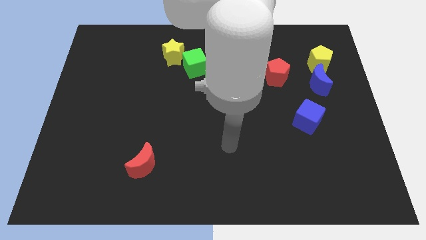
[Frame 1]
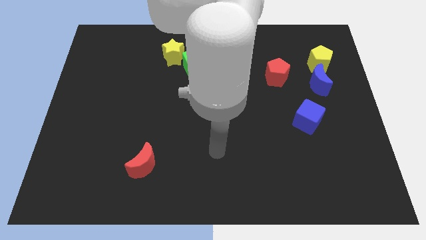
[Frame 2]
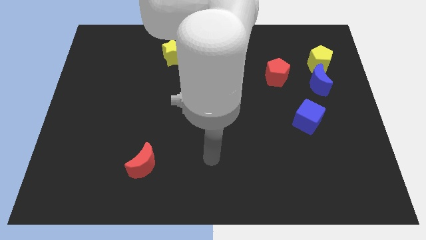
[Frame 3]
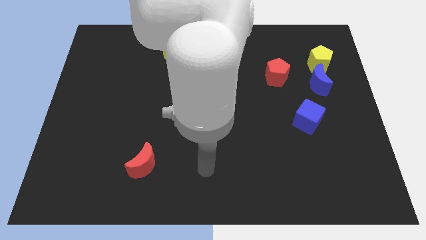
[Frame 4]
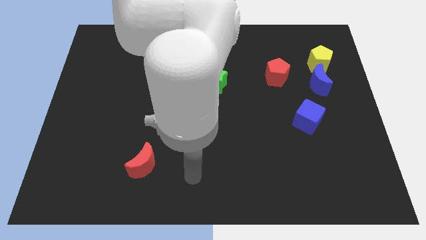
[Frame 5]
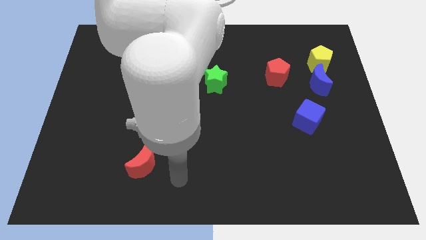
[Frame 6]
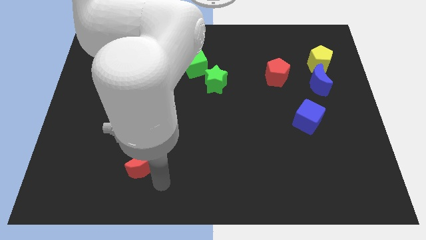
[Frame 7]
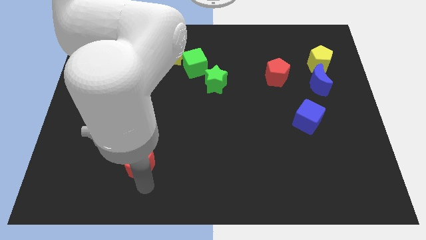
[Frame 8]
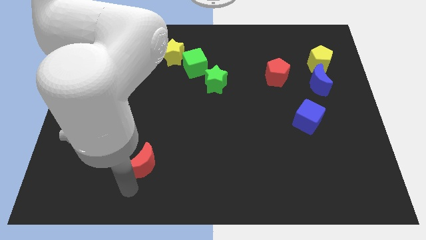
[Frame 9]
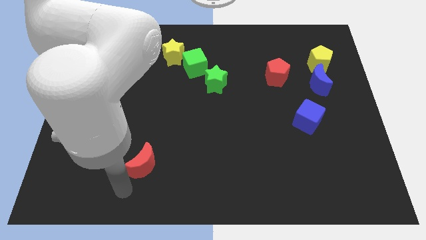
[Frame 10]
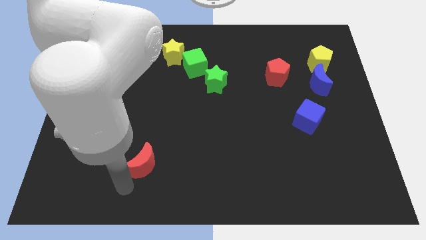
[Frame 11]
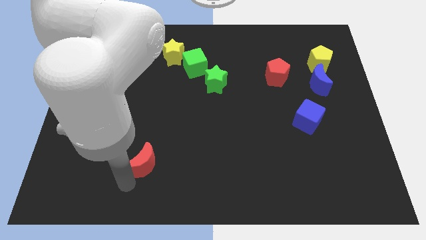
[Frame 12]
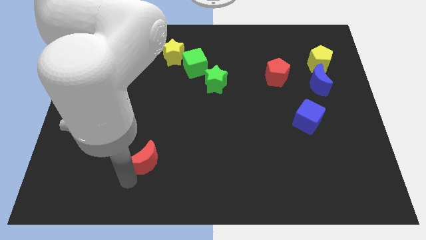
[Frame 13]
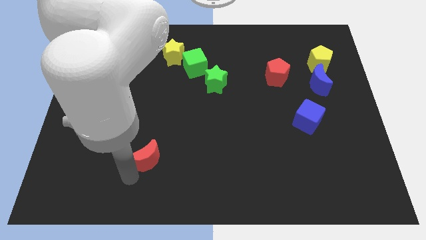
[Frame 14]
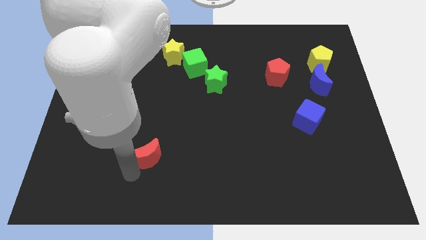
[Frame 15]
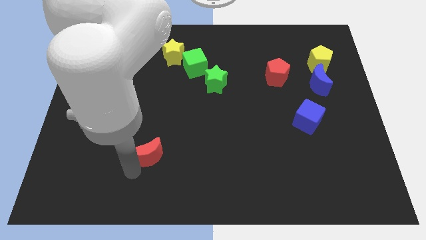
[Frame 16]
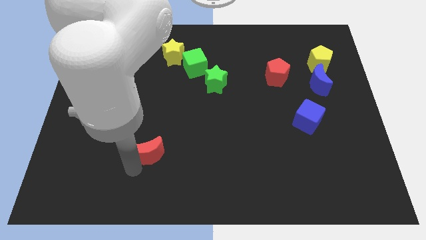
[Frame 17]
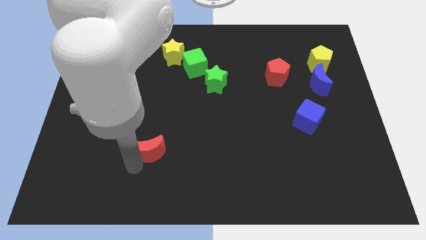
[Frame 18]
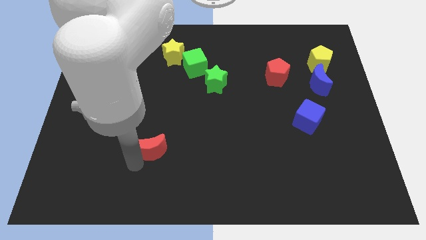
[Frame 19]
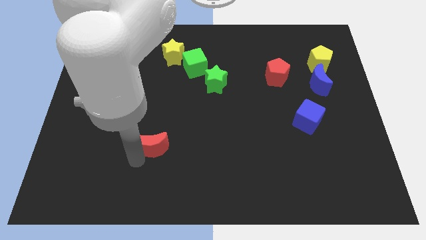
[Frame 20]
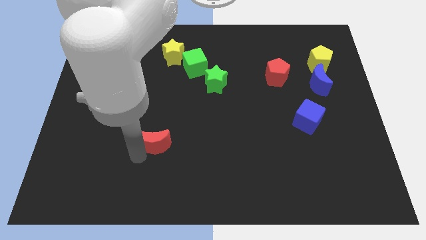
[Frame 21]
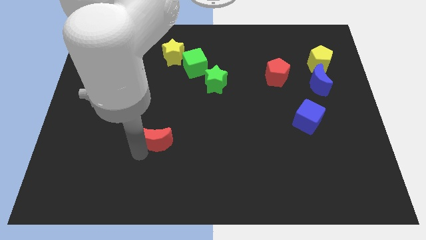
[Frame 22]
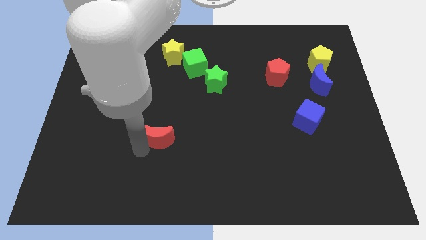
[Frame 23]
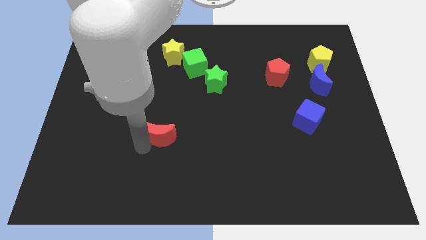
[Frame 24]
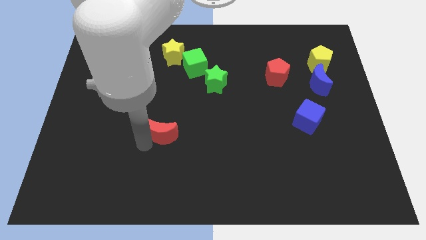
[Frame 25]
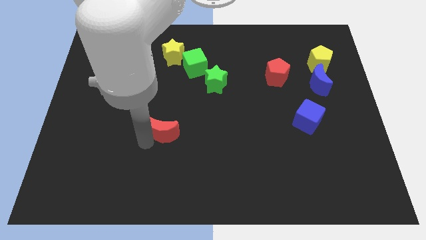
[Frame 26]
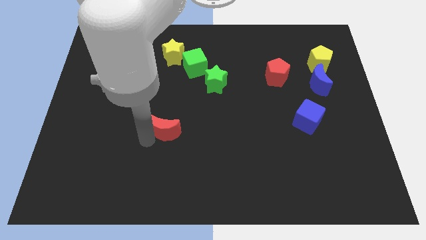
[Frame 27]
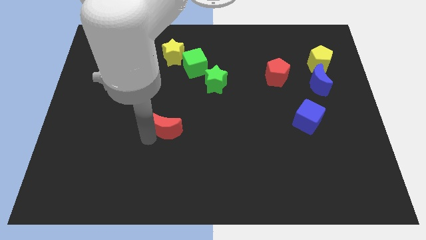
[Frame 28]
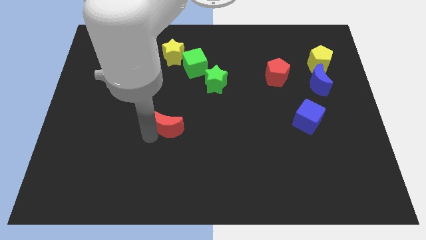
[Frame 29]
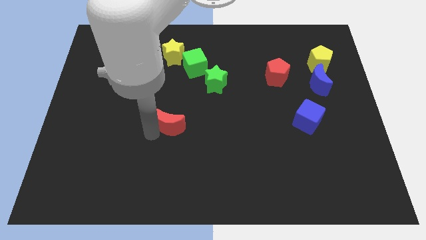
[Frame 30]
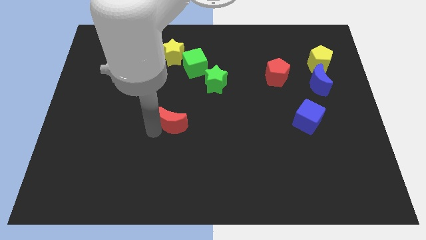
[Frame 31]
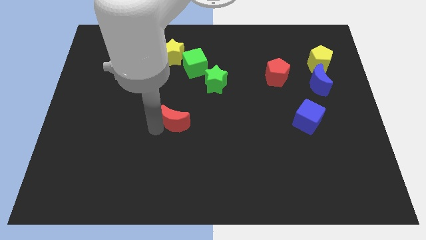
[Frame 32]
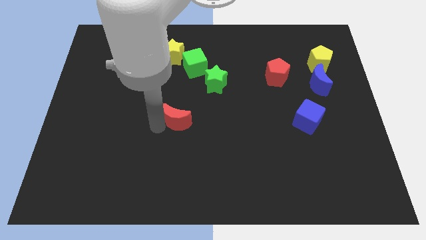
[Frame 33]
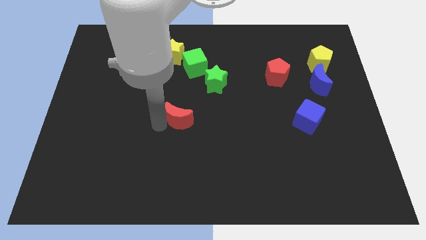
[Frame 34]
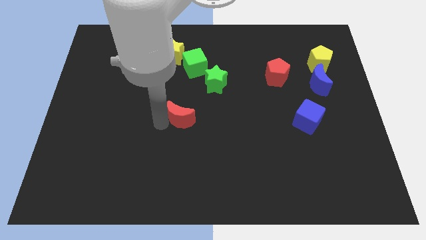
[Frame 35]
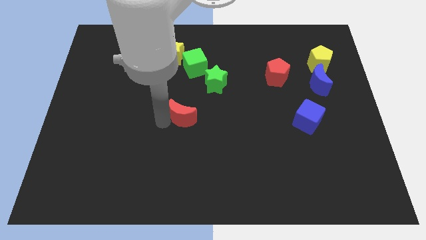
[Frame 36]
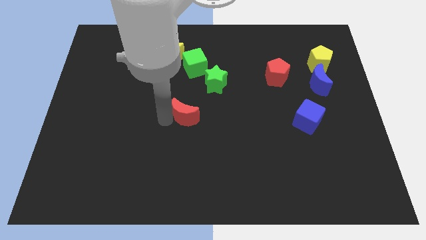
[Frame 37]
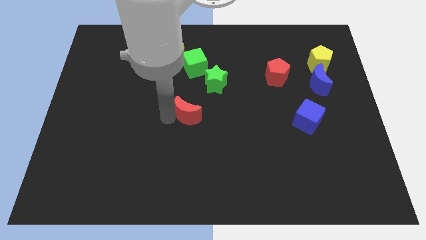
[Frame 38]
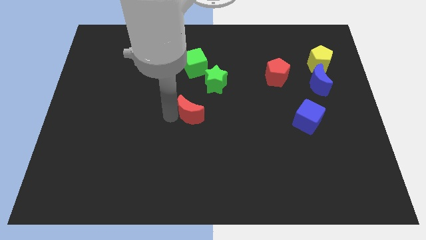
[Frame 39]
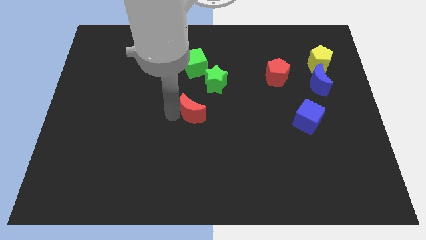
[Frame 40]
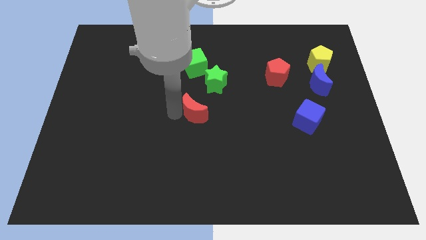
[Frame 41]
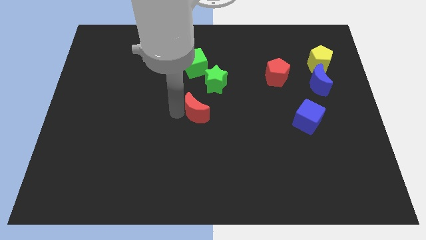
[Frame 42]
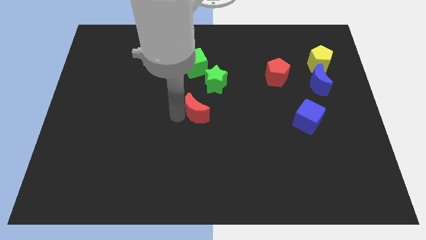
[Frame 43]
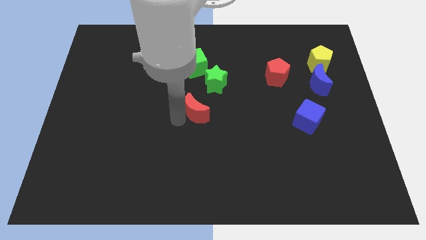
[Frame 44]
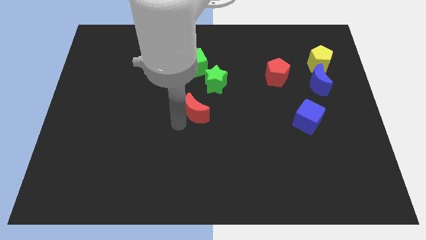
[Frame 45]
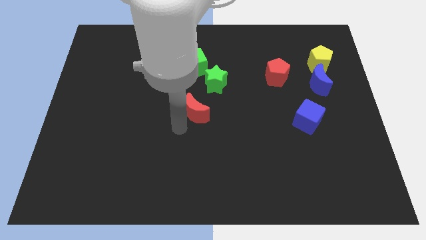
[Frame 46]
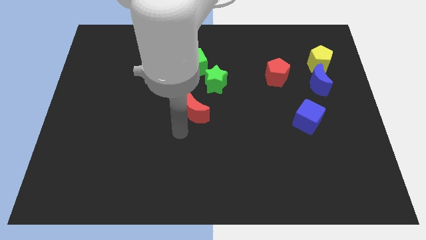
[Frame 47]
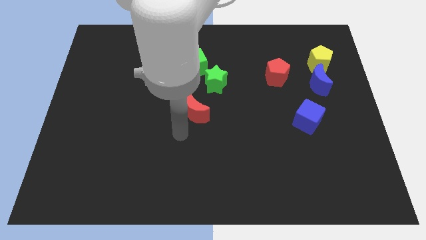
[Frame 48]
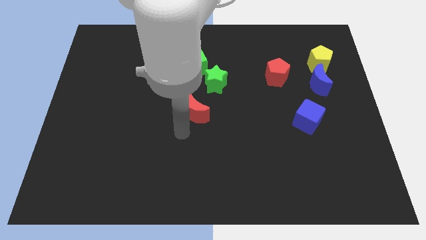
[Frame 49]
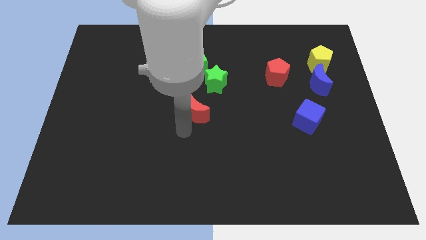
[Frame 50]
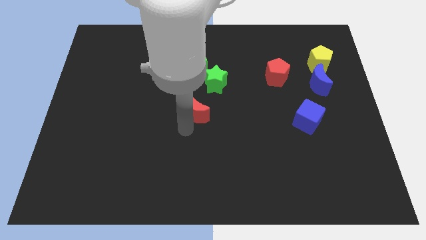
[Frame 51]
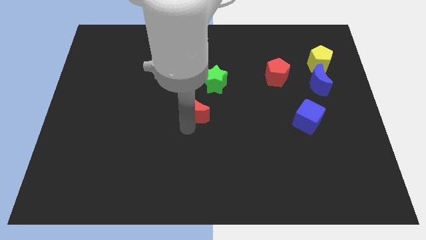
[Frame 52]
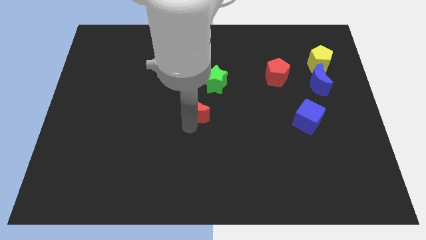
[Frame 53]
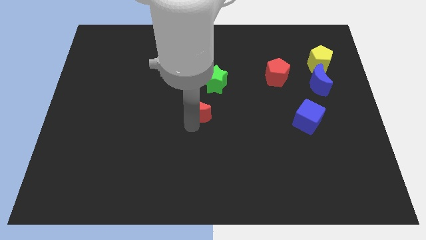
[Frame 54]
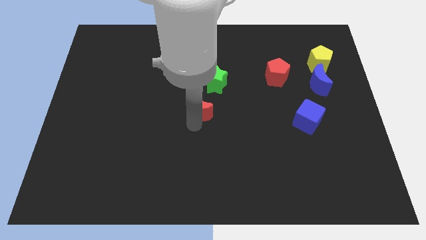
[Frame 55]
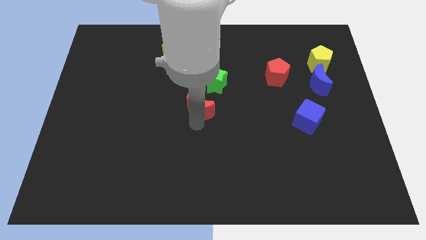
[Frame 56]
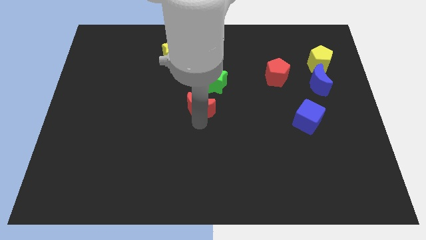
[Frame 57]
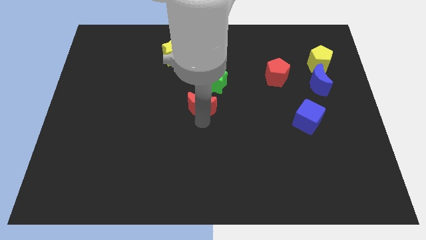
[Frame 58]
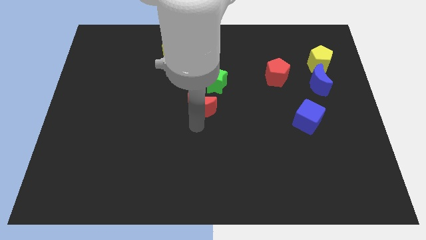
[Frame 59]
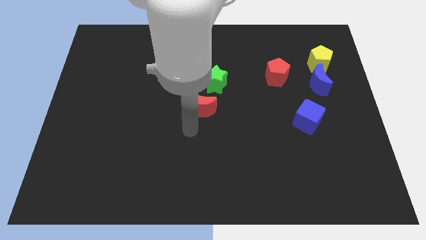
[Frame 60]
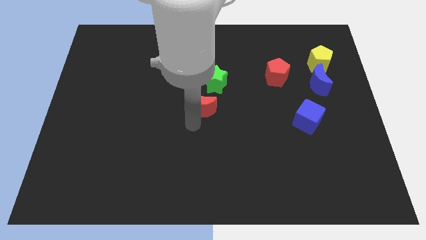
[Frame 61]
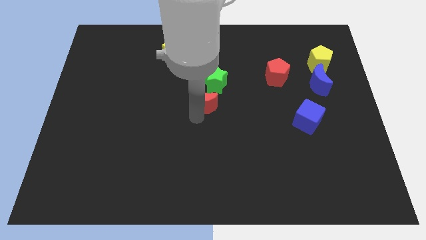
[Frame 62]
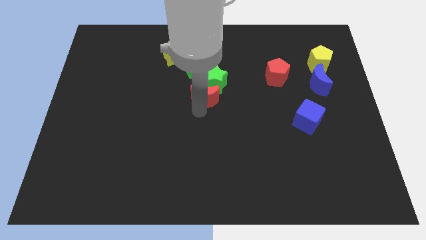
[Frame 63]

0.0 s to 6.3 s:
slide the red moon close to the green star

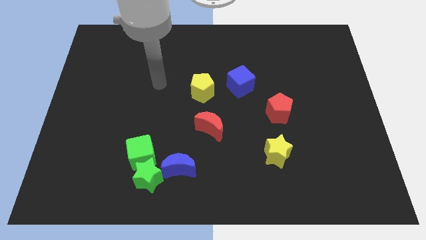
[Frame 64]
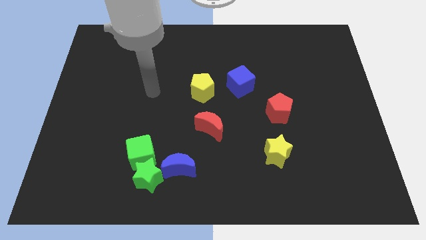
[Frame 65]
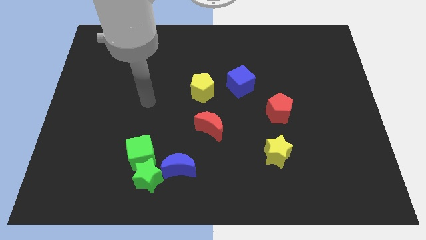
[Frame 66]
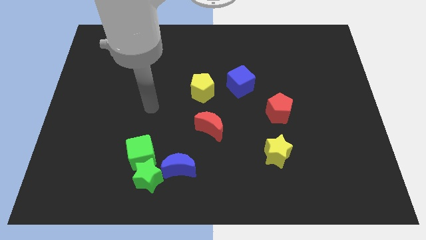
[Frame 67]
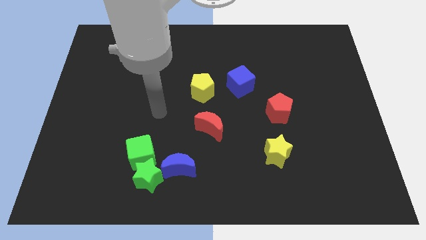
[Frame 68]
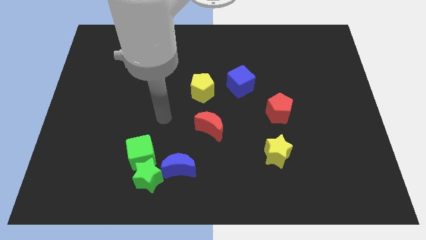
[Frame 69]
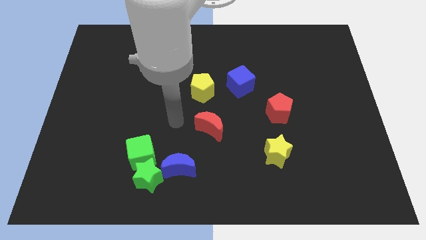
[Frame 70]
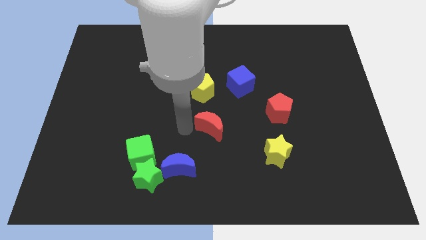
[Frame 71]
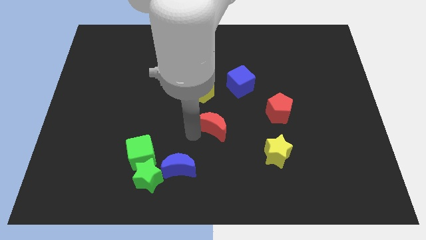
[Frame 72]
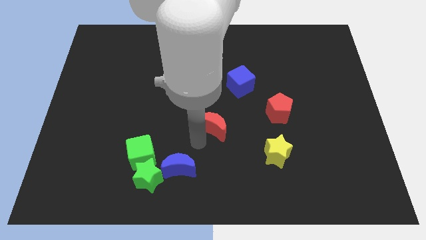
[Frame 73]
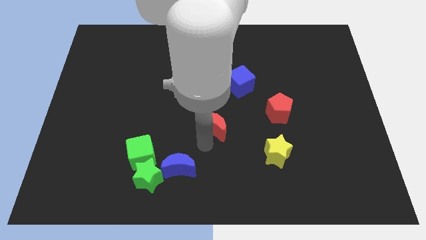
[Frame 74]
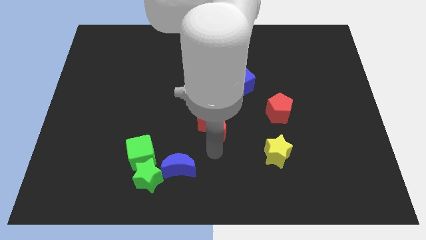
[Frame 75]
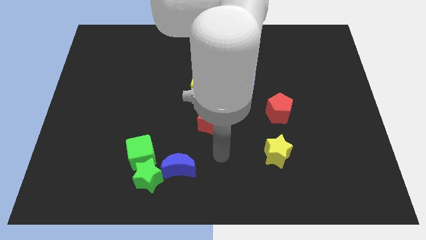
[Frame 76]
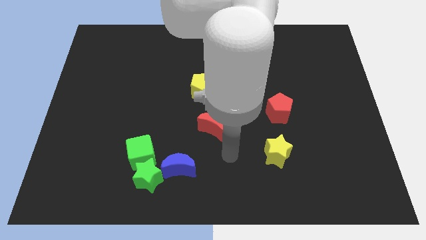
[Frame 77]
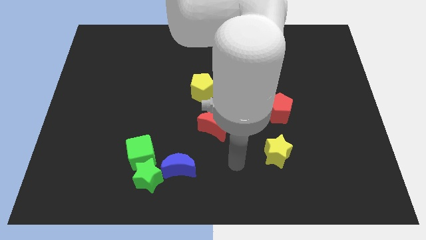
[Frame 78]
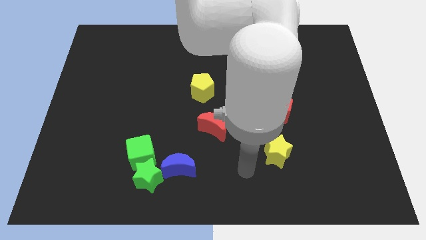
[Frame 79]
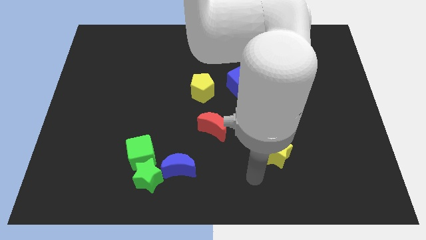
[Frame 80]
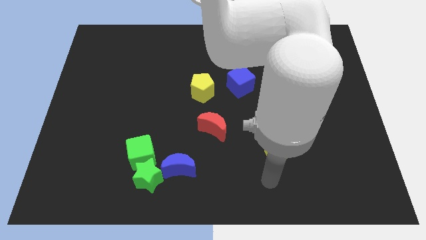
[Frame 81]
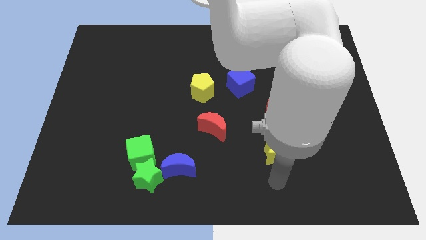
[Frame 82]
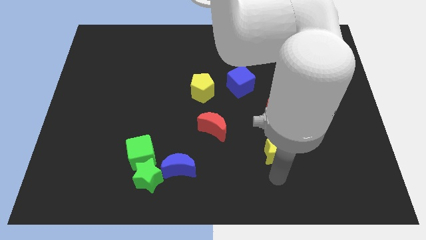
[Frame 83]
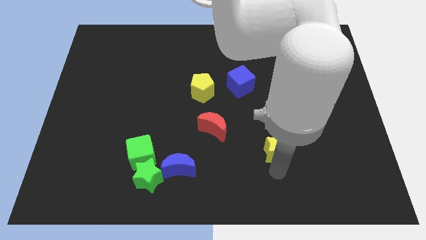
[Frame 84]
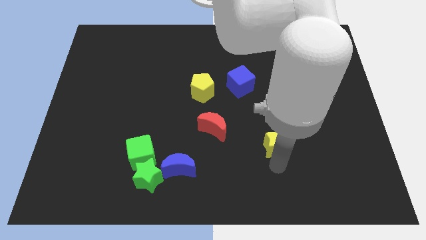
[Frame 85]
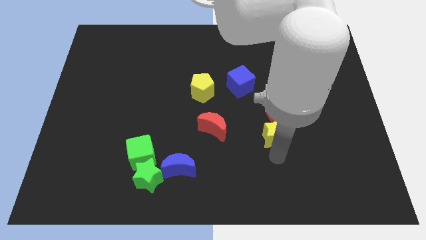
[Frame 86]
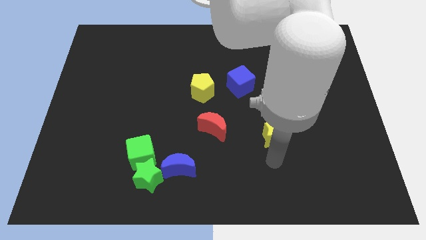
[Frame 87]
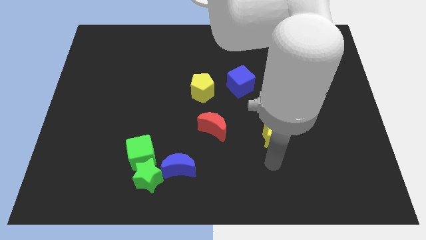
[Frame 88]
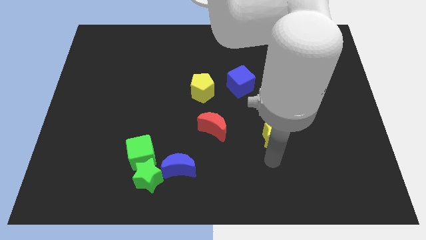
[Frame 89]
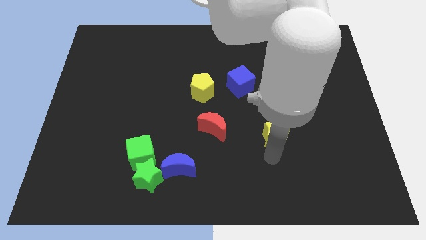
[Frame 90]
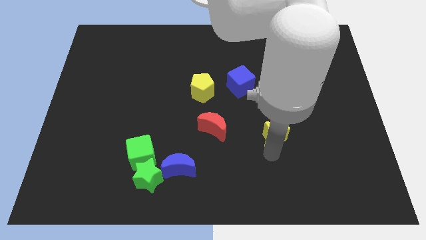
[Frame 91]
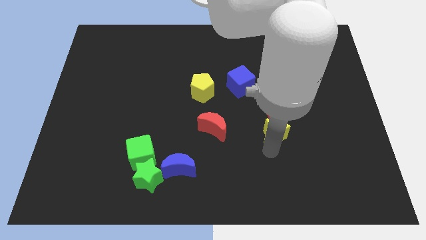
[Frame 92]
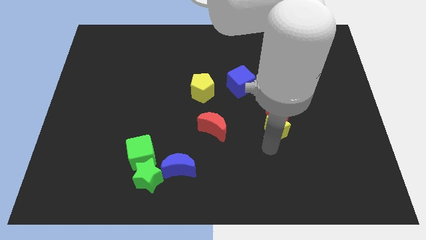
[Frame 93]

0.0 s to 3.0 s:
push the yellow star next to the red pentagon
